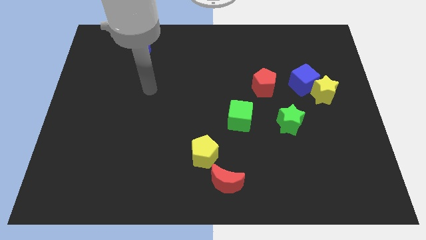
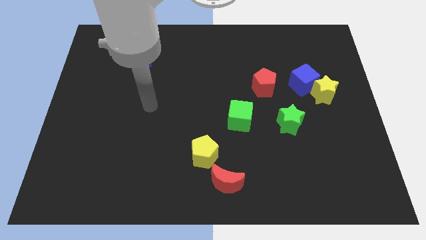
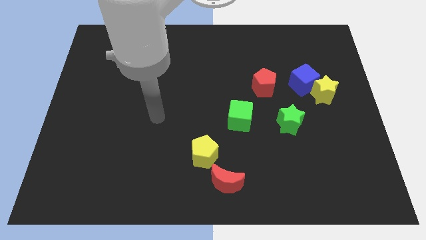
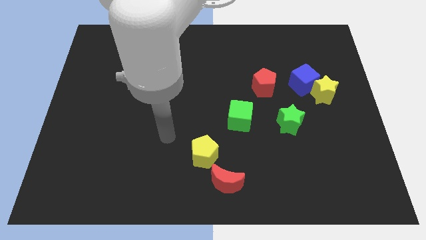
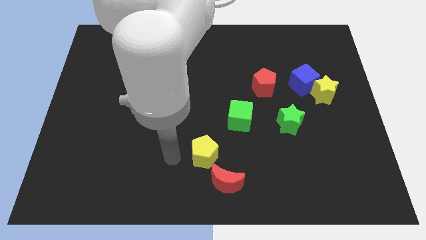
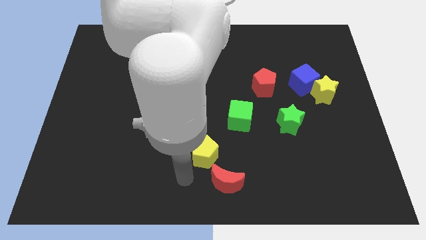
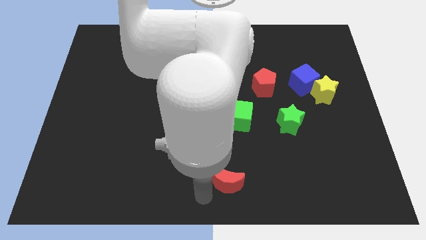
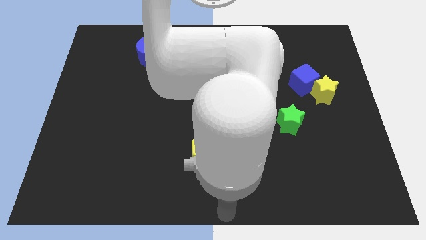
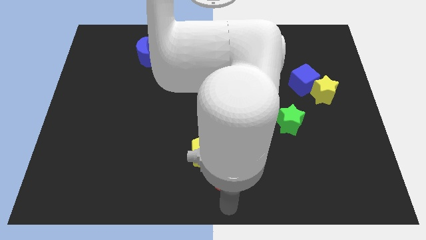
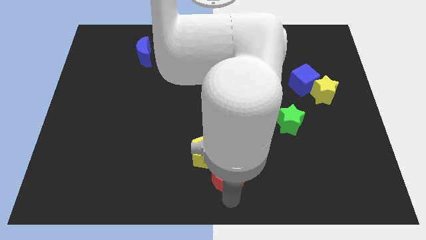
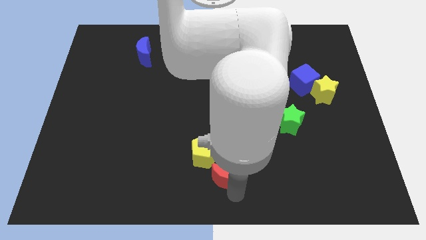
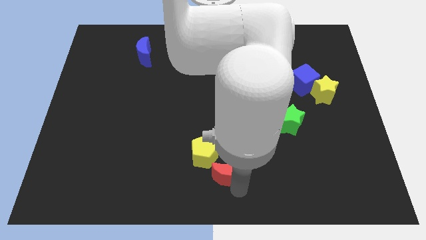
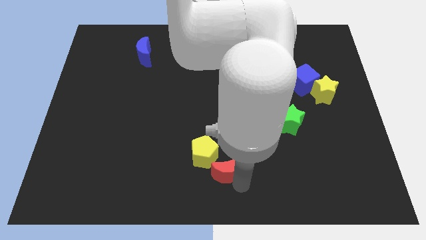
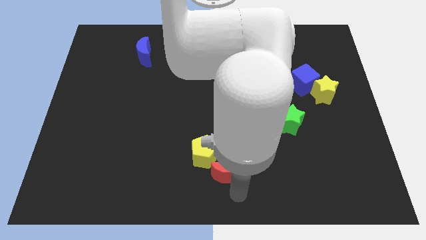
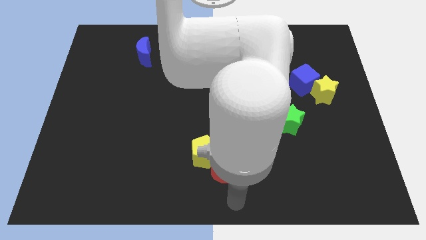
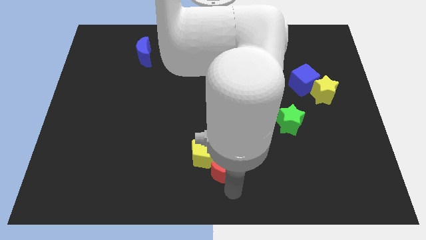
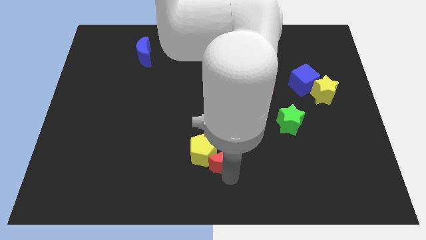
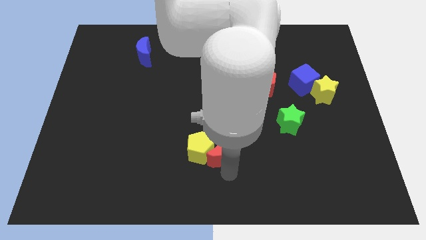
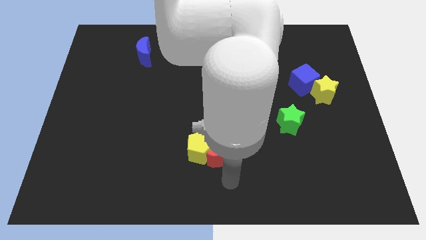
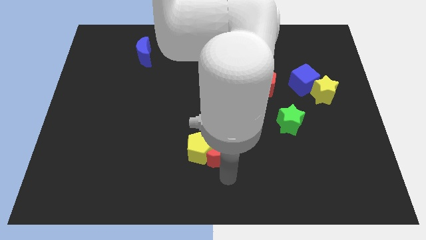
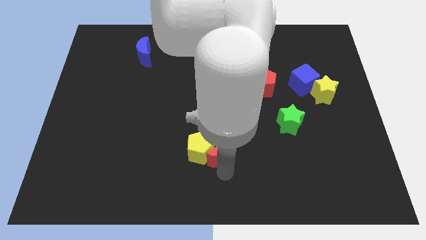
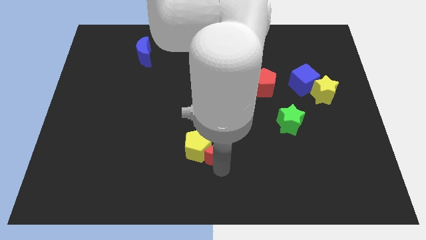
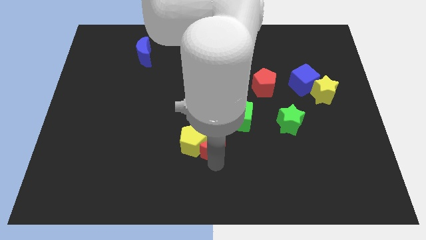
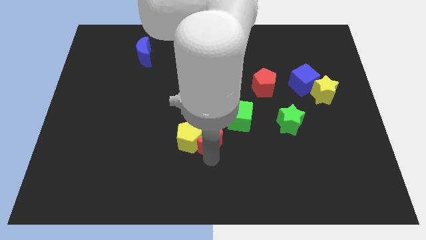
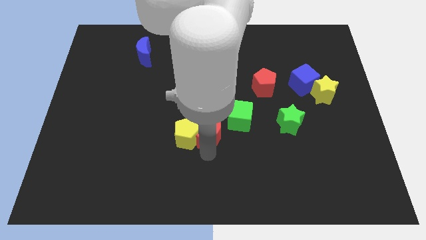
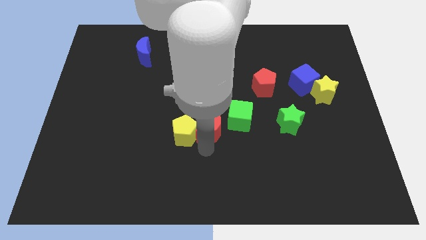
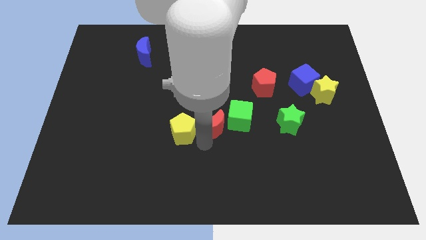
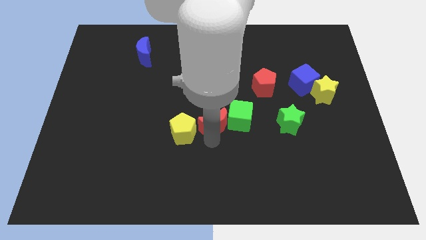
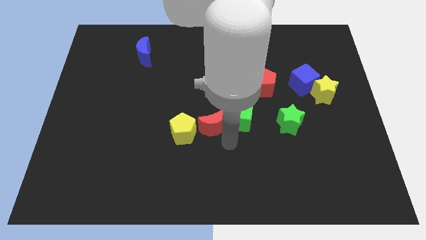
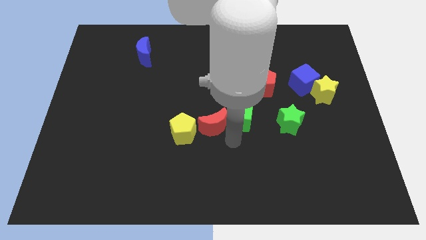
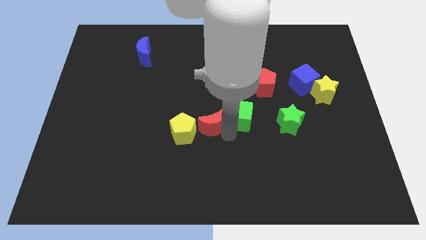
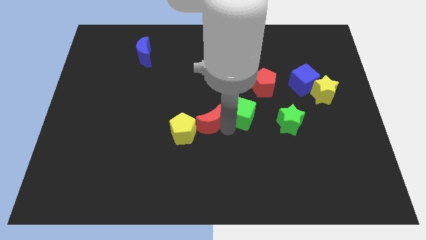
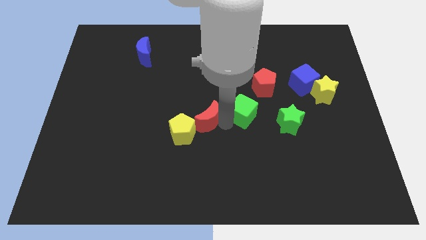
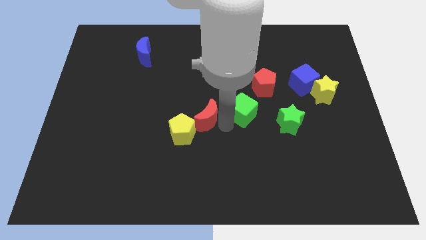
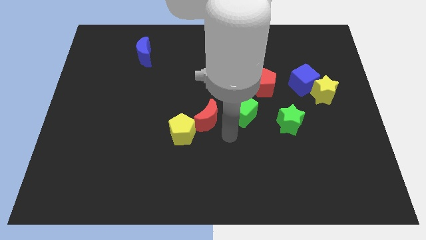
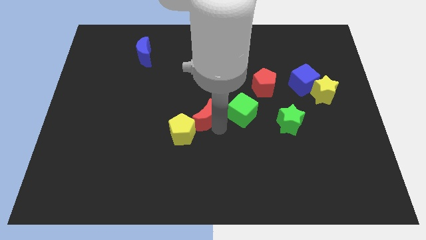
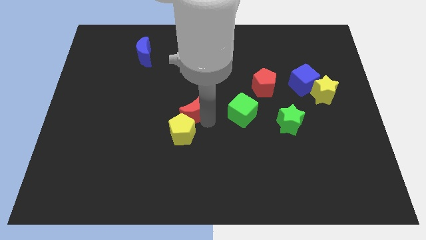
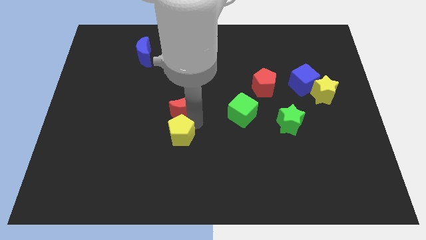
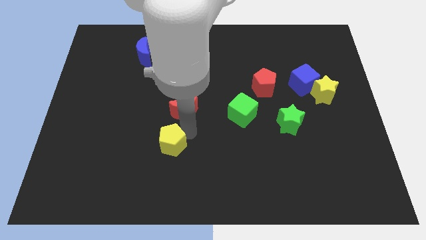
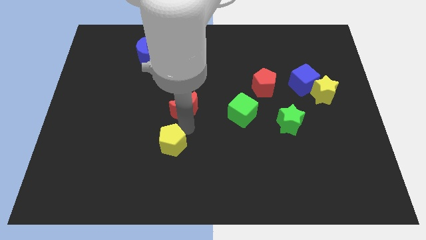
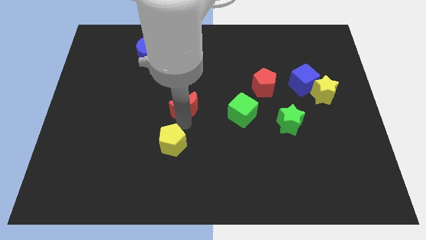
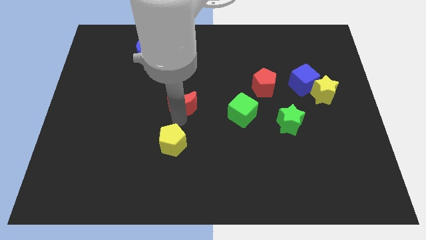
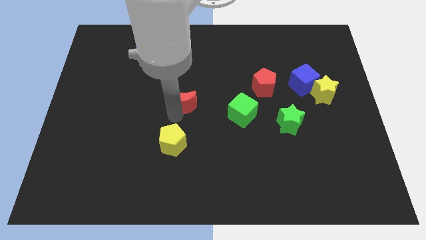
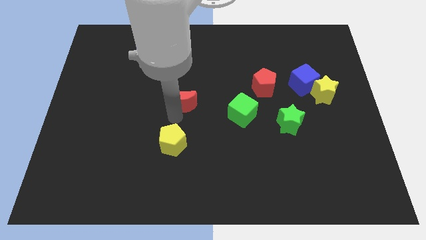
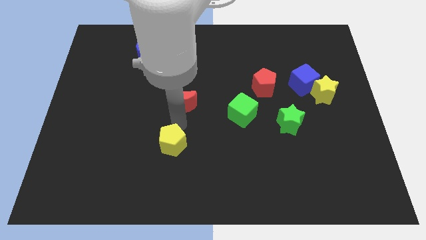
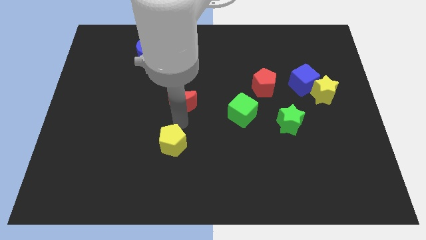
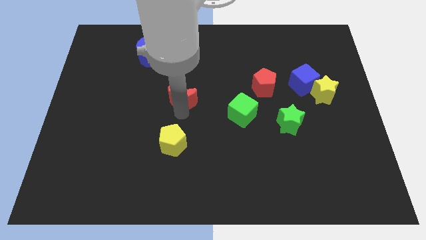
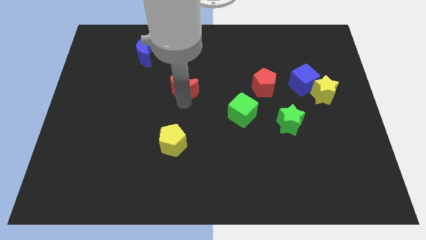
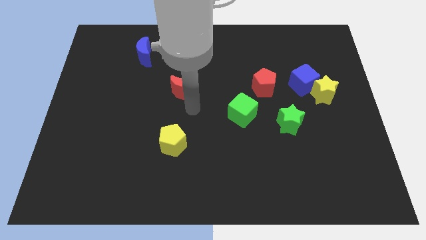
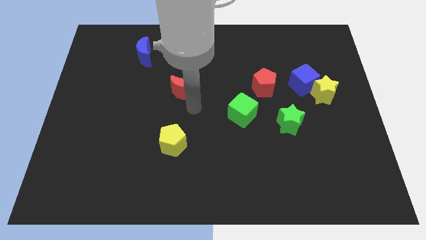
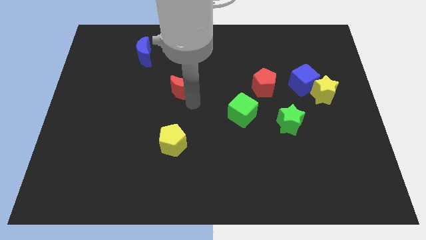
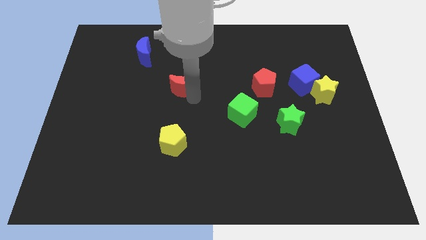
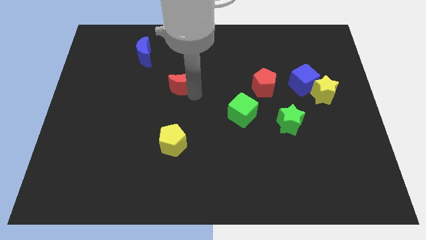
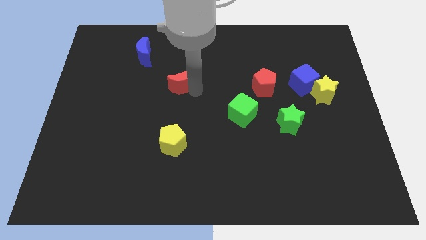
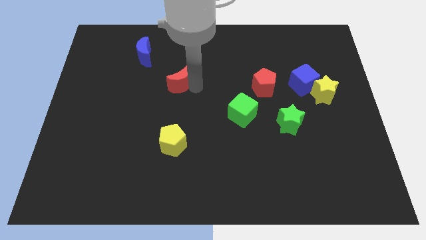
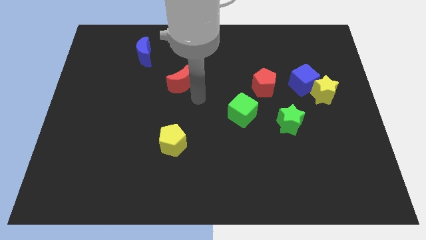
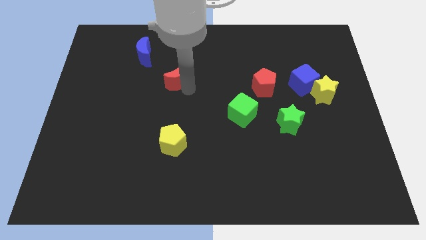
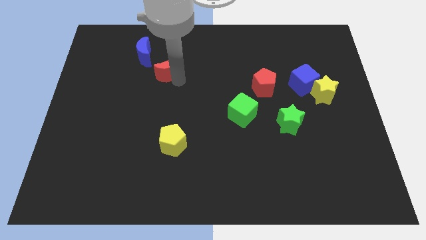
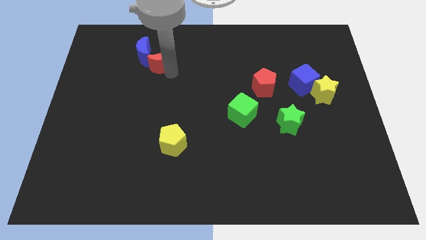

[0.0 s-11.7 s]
put the red moon to the blue moon

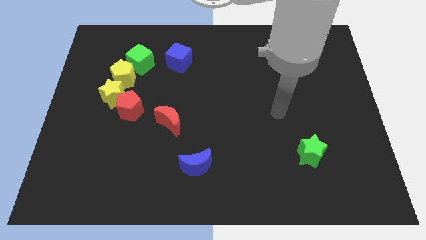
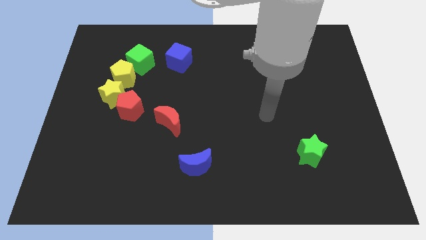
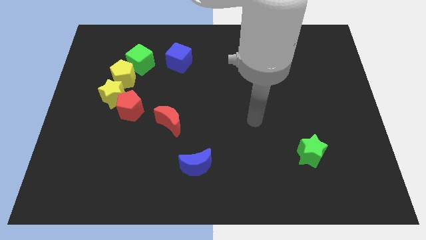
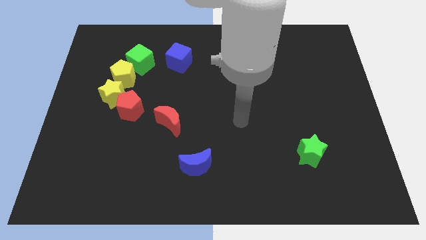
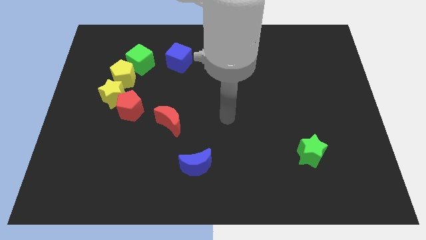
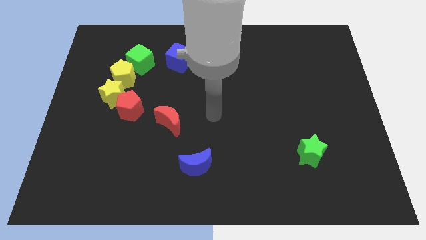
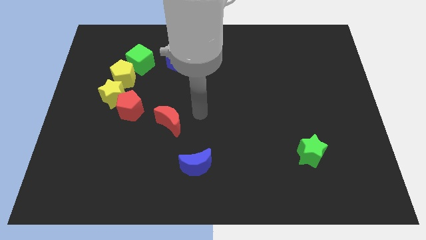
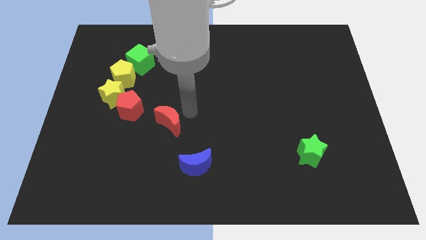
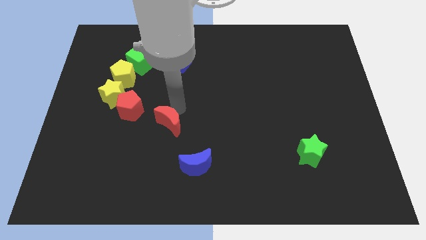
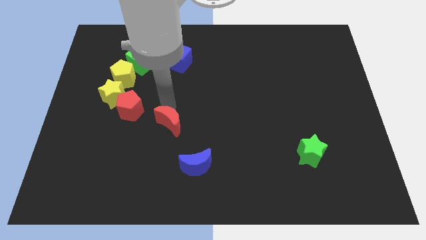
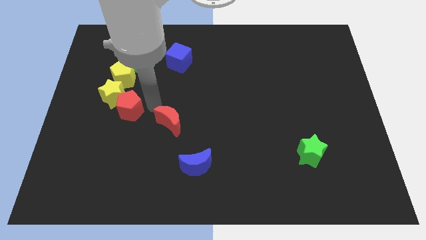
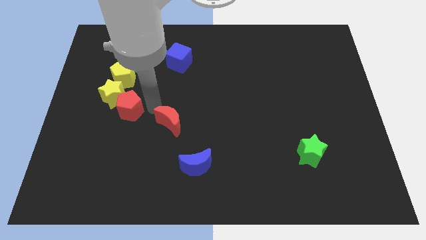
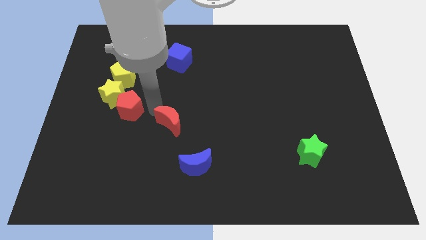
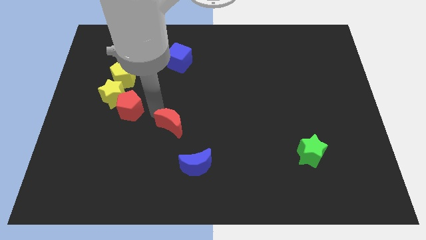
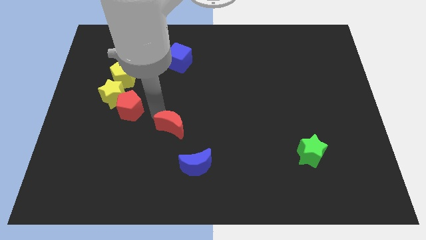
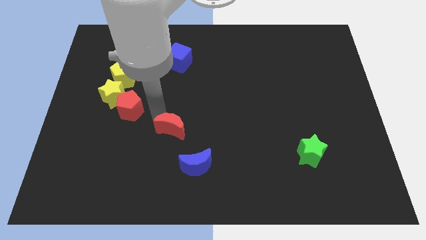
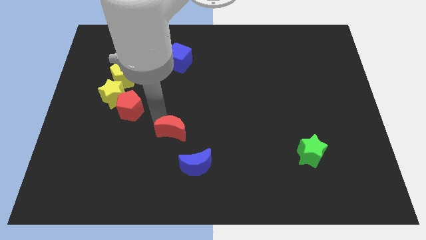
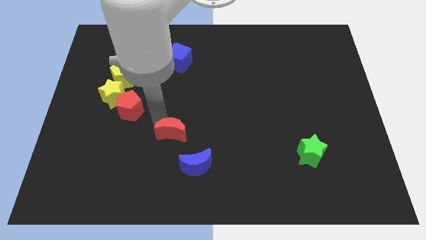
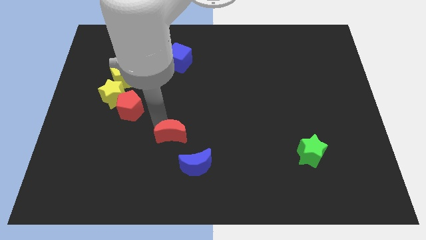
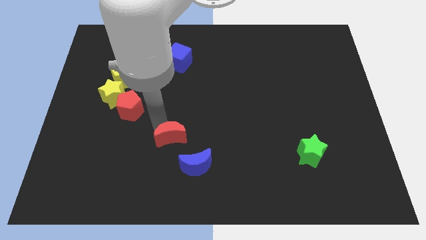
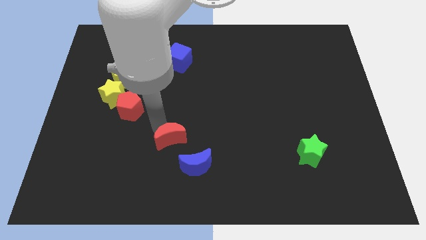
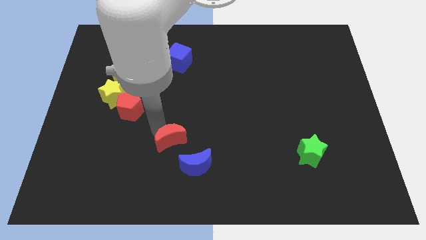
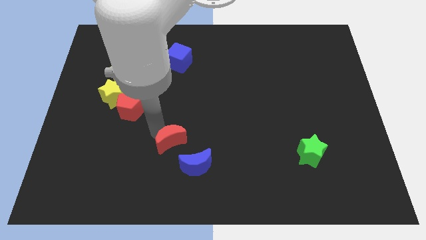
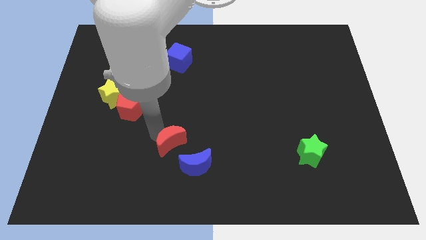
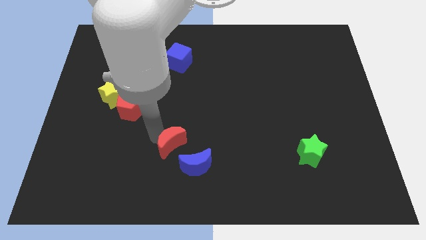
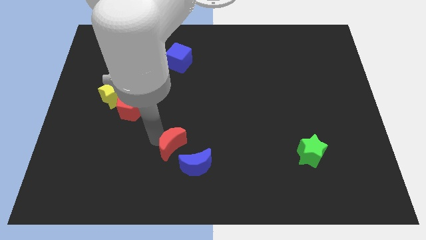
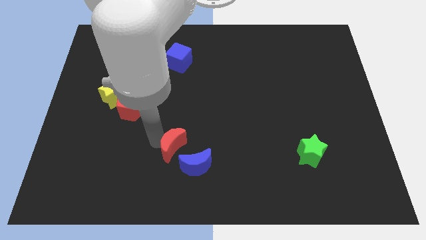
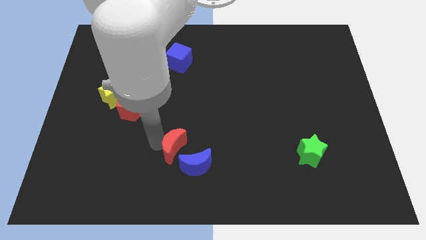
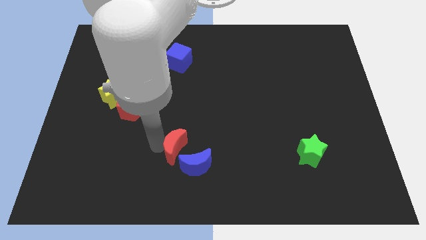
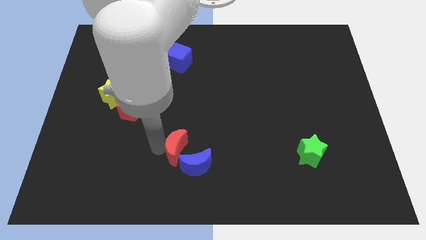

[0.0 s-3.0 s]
move the red moon to the blue moon
